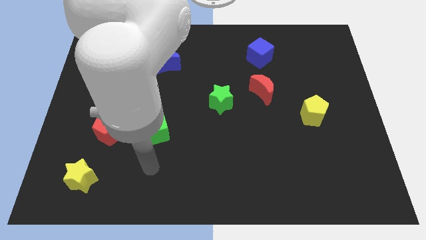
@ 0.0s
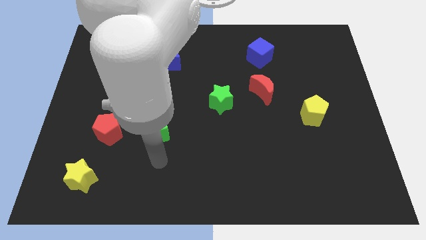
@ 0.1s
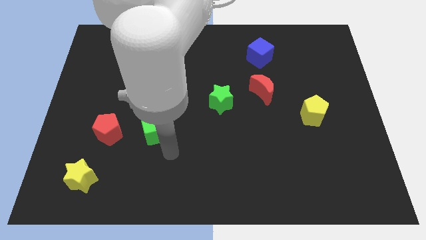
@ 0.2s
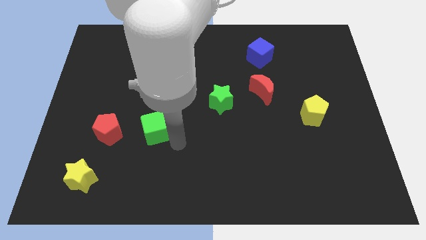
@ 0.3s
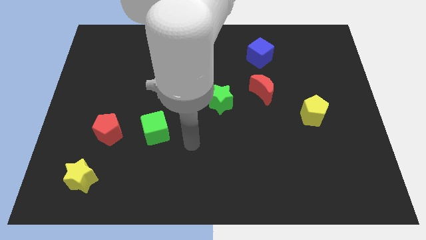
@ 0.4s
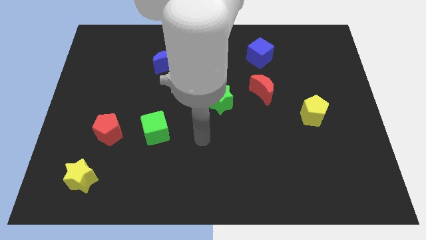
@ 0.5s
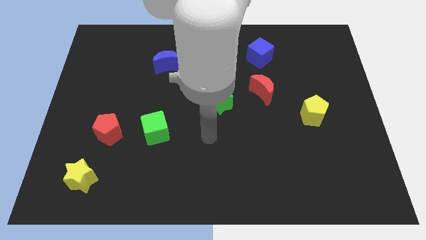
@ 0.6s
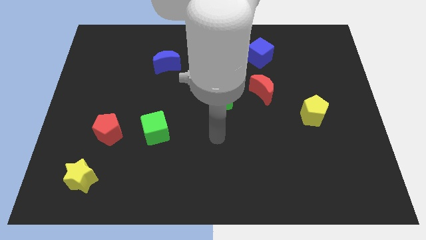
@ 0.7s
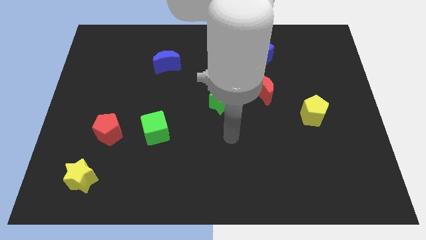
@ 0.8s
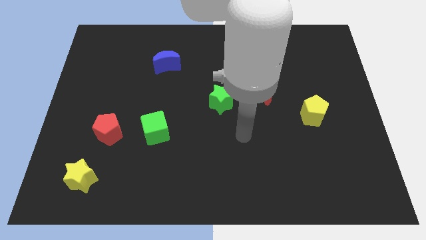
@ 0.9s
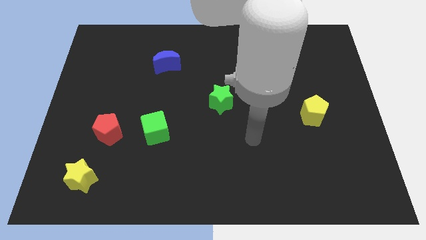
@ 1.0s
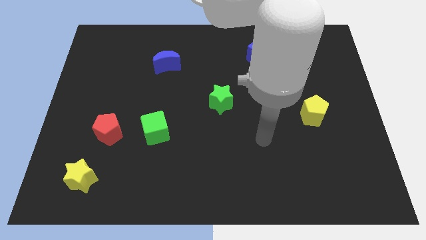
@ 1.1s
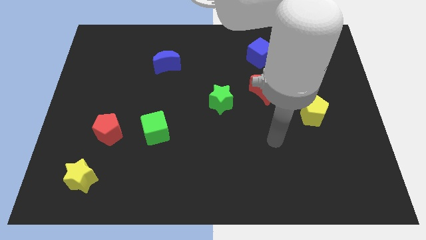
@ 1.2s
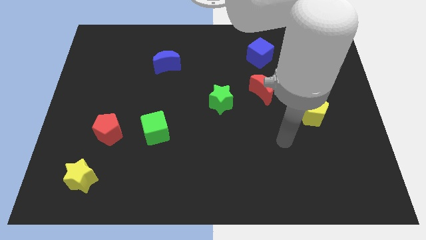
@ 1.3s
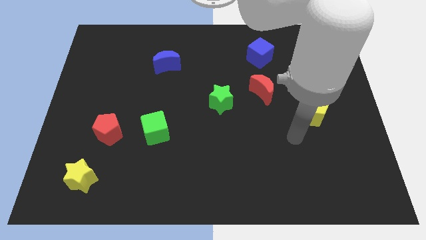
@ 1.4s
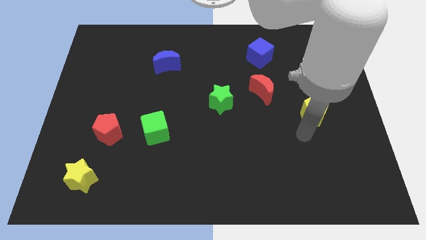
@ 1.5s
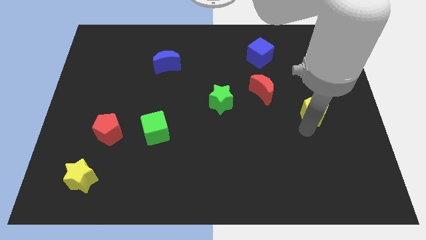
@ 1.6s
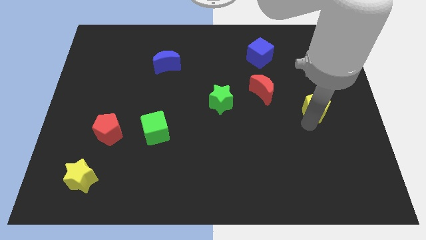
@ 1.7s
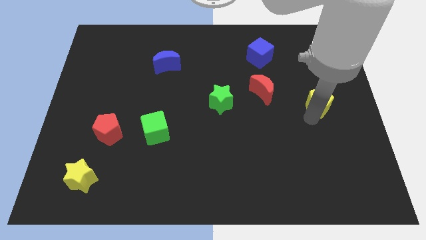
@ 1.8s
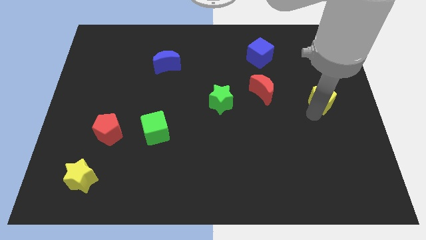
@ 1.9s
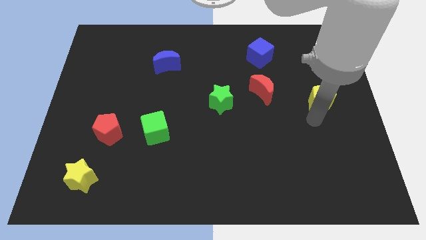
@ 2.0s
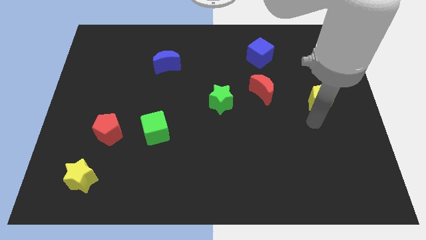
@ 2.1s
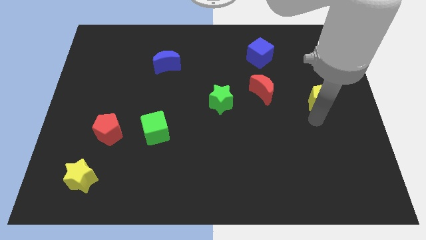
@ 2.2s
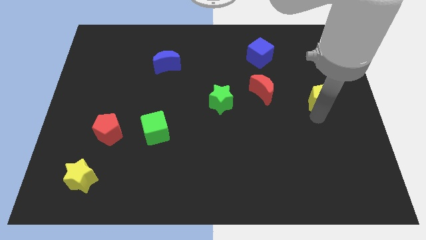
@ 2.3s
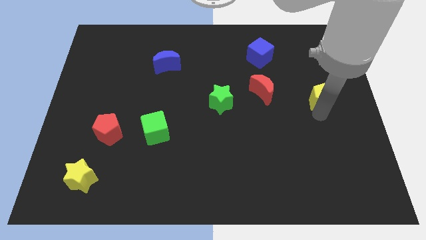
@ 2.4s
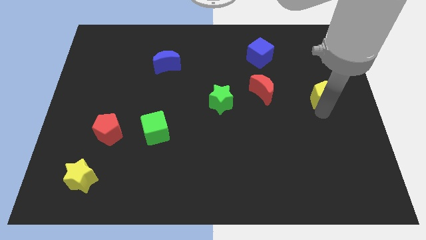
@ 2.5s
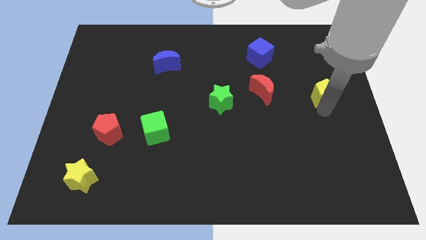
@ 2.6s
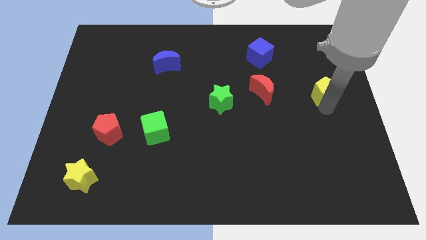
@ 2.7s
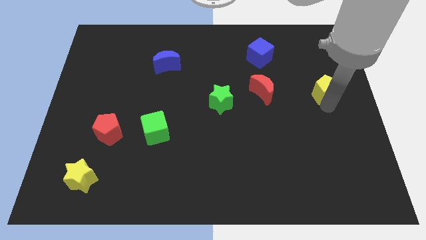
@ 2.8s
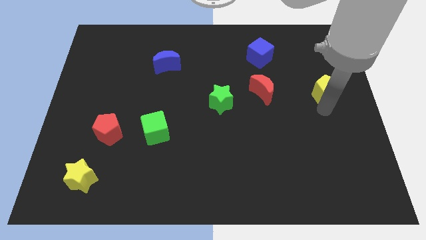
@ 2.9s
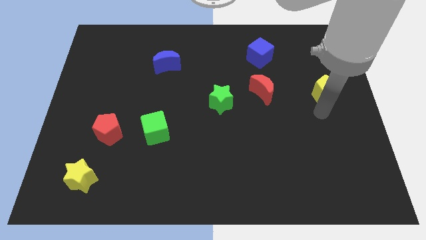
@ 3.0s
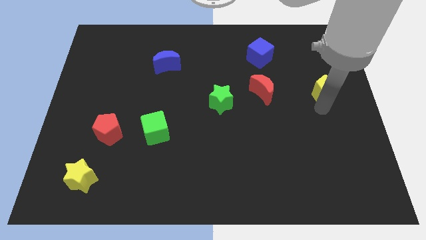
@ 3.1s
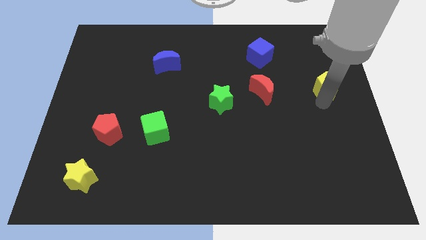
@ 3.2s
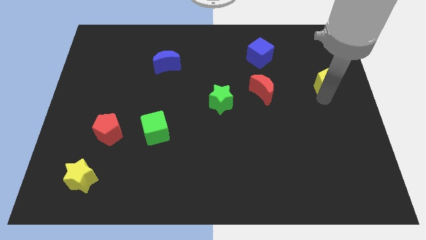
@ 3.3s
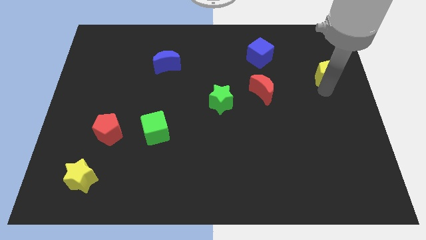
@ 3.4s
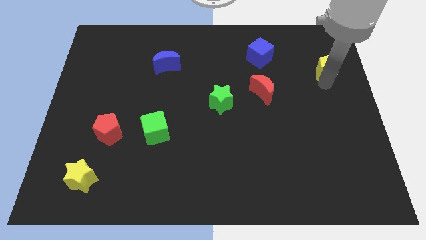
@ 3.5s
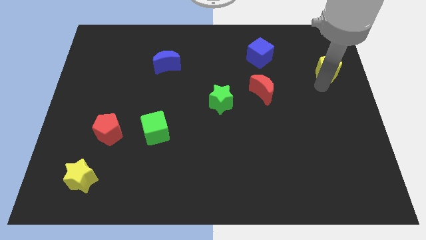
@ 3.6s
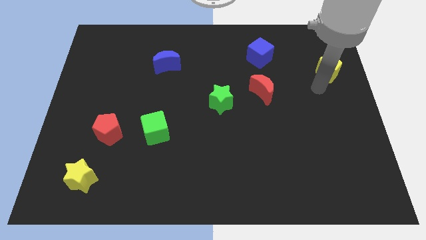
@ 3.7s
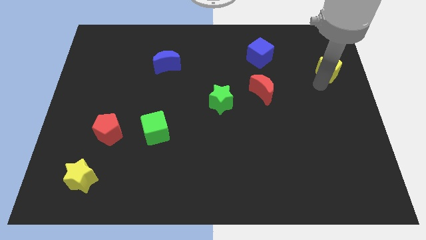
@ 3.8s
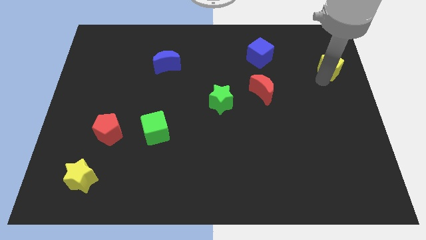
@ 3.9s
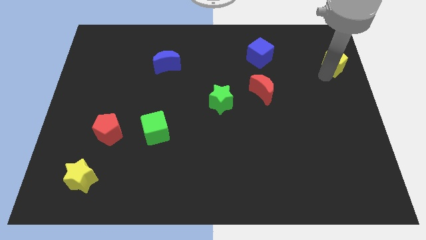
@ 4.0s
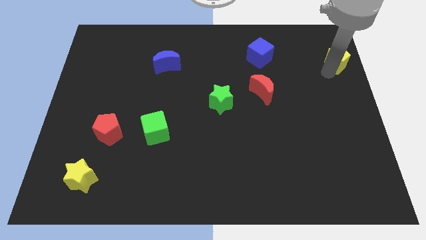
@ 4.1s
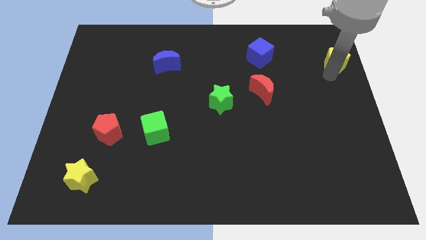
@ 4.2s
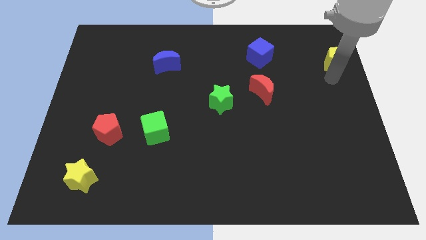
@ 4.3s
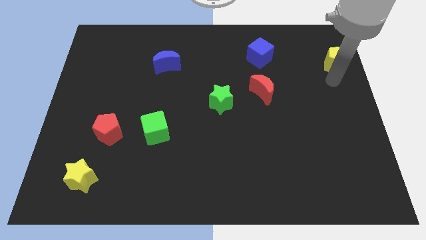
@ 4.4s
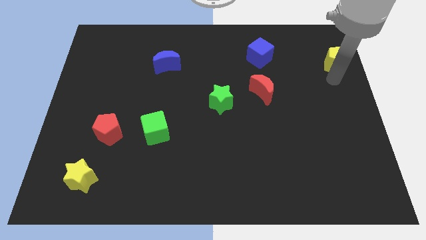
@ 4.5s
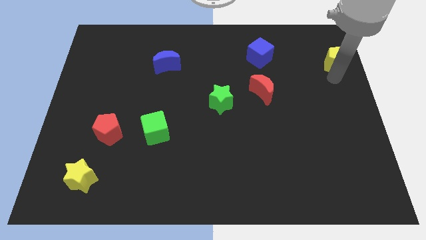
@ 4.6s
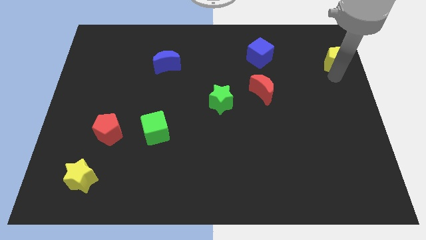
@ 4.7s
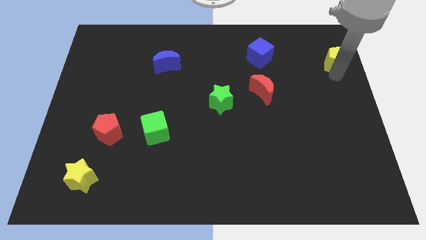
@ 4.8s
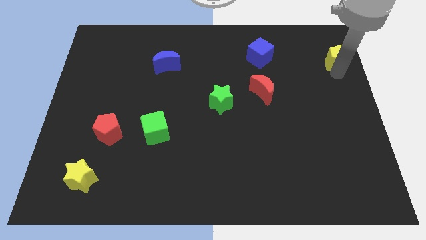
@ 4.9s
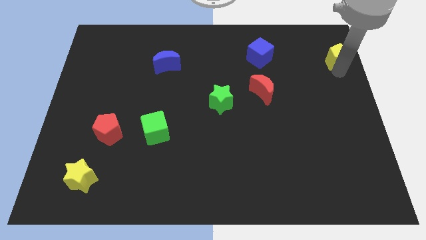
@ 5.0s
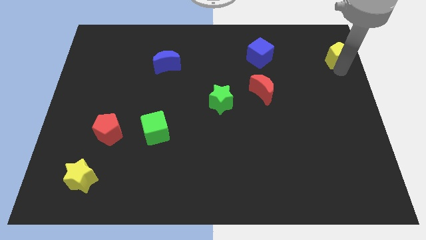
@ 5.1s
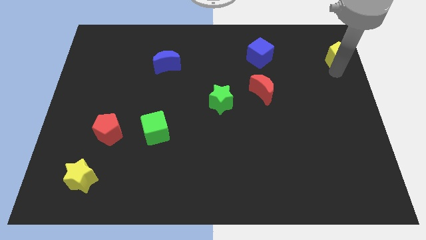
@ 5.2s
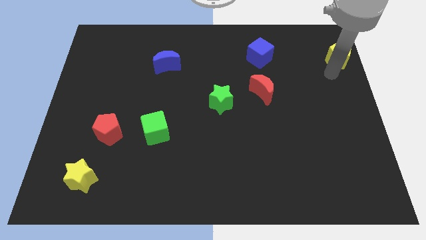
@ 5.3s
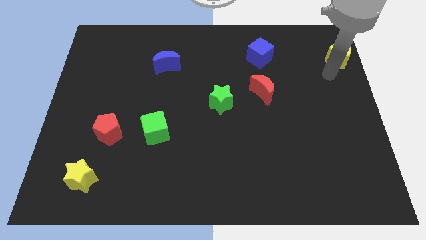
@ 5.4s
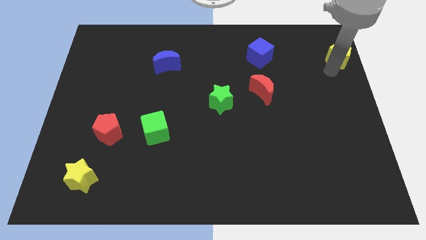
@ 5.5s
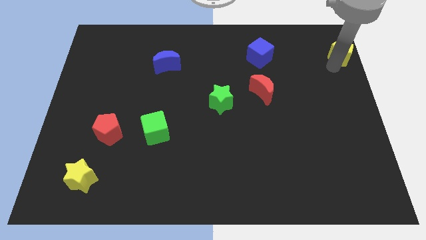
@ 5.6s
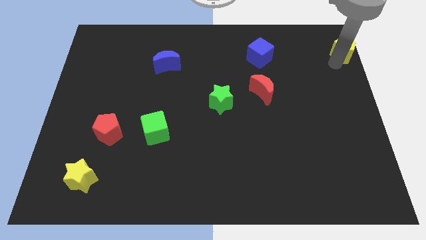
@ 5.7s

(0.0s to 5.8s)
push the yellow pentagon to the top right of the board
